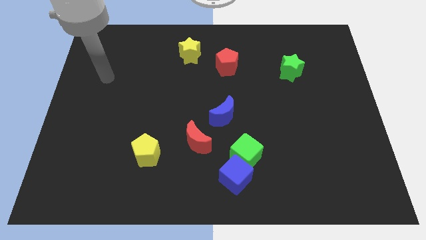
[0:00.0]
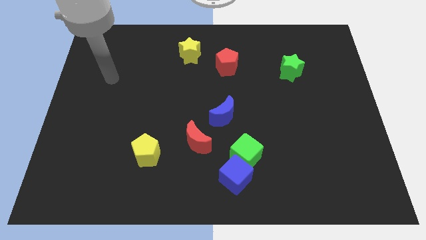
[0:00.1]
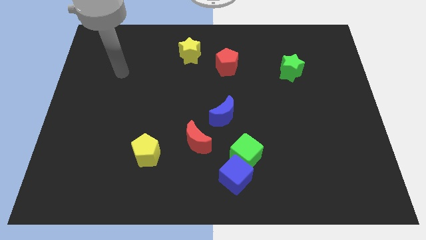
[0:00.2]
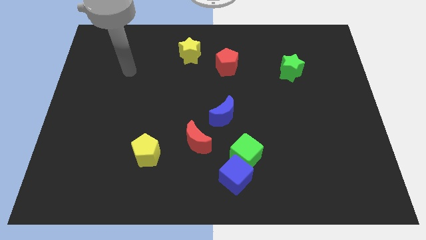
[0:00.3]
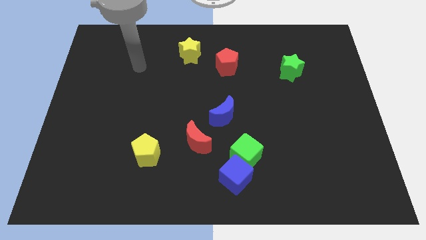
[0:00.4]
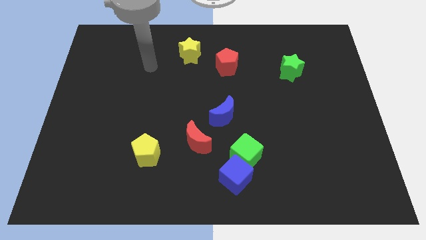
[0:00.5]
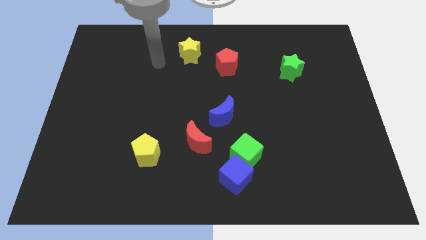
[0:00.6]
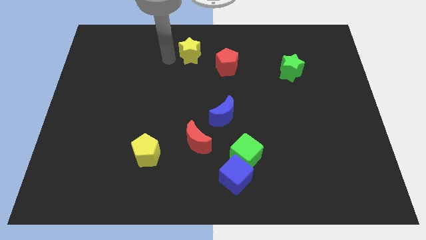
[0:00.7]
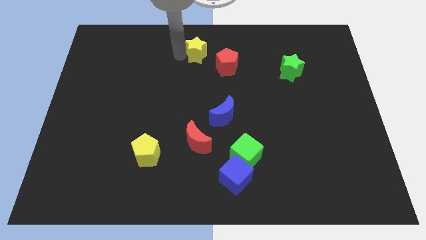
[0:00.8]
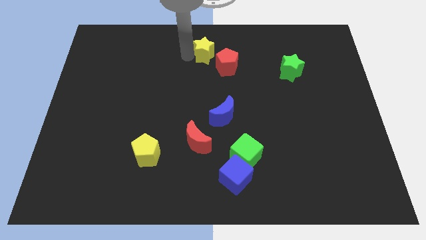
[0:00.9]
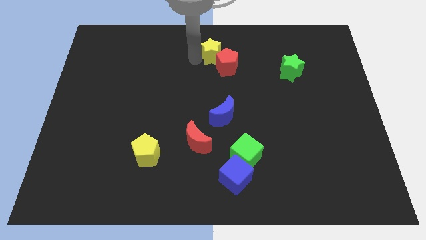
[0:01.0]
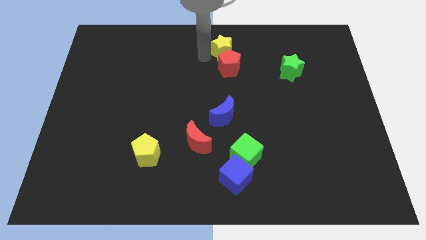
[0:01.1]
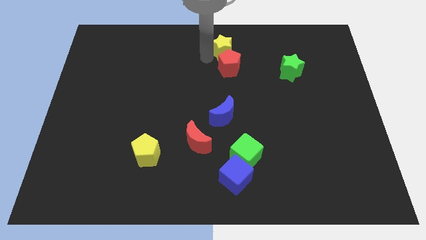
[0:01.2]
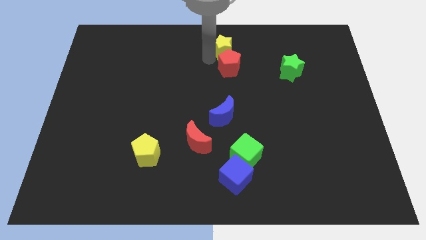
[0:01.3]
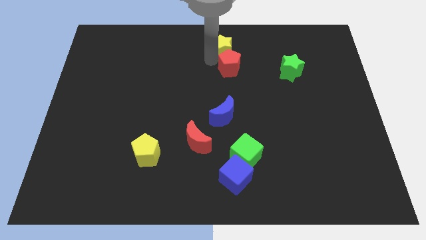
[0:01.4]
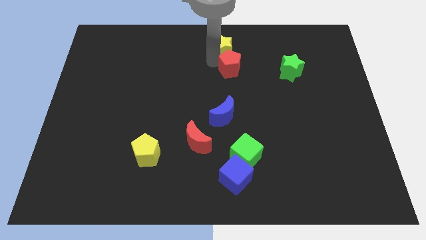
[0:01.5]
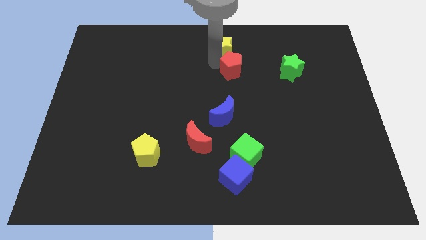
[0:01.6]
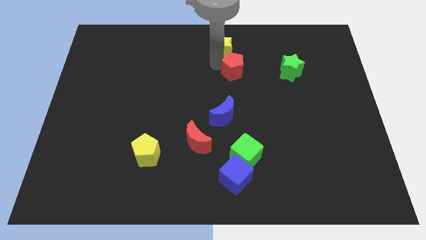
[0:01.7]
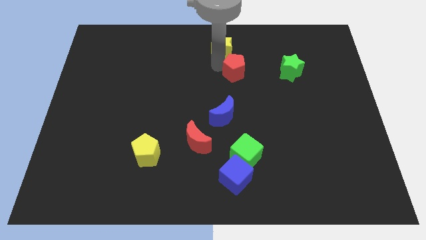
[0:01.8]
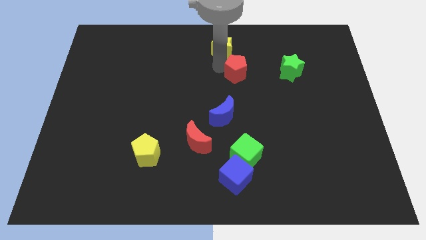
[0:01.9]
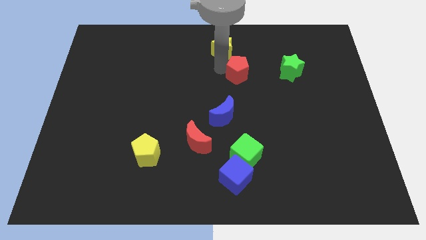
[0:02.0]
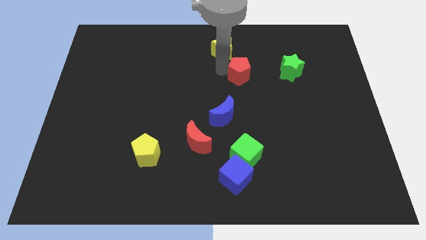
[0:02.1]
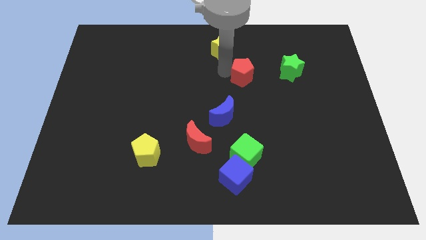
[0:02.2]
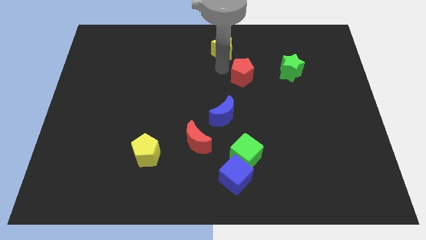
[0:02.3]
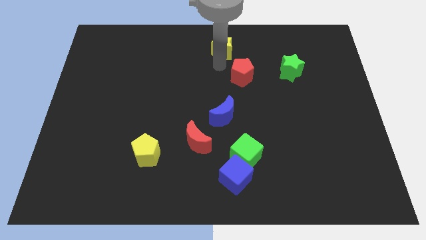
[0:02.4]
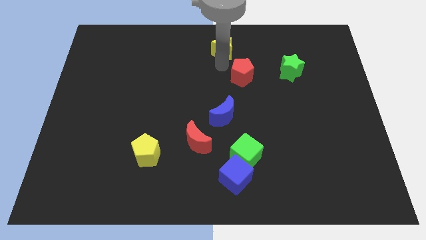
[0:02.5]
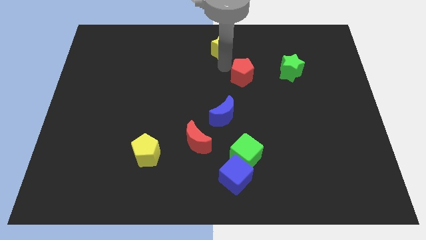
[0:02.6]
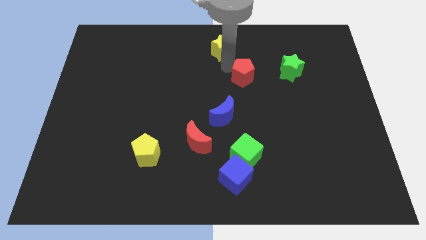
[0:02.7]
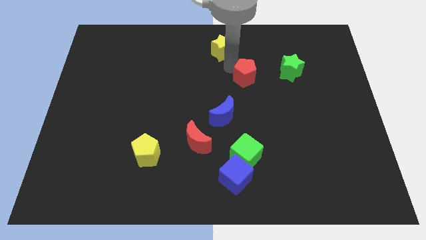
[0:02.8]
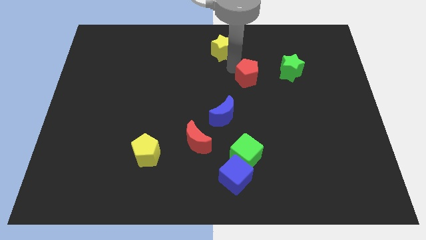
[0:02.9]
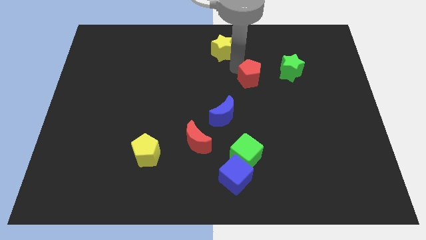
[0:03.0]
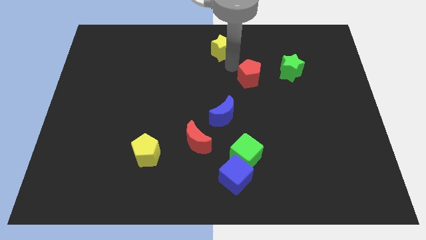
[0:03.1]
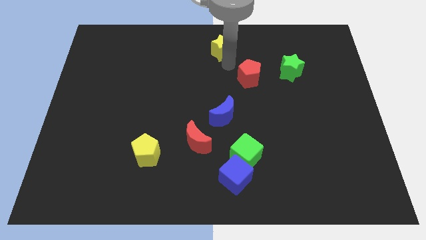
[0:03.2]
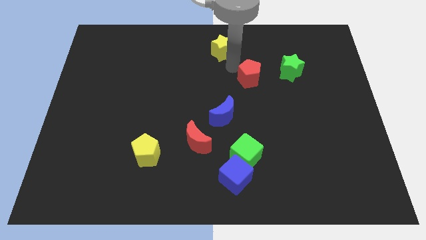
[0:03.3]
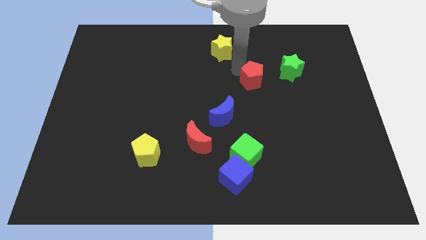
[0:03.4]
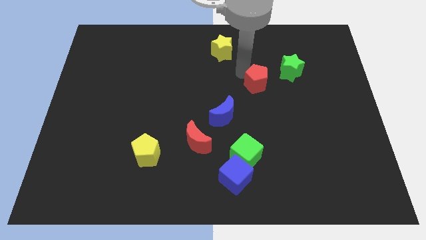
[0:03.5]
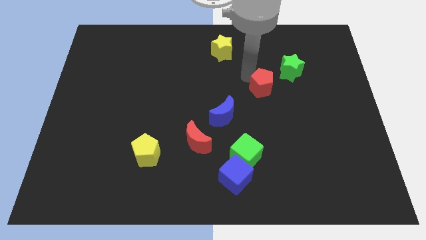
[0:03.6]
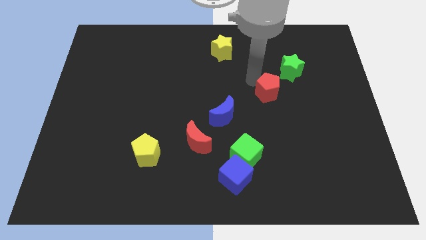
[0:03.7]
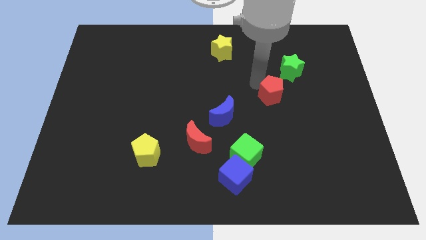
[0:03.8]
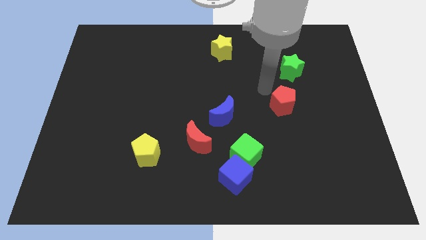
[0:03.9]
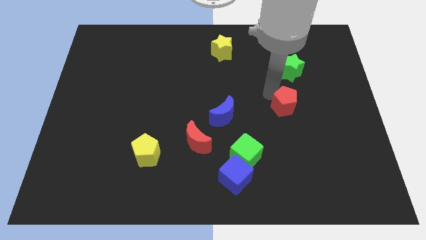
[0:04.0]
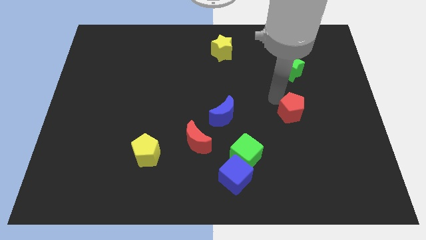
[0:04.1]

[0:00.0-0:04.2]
slide the red pentagon diagonally down and right

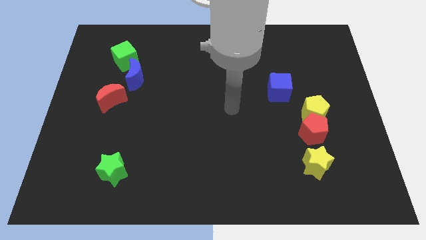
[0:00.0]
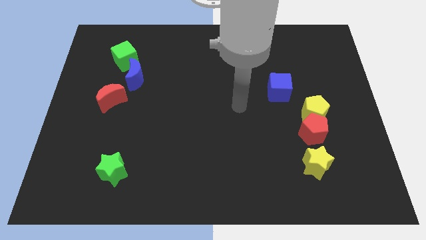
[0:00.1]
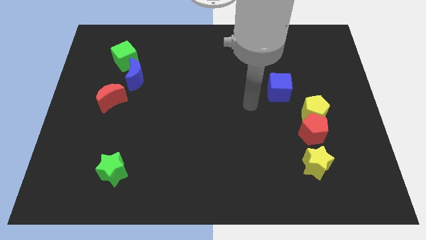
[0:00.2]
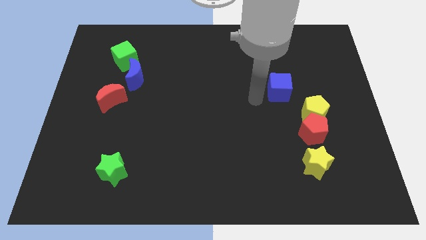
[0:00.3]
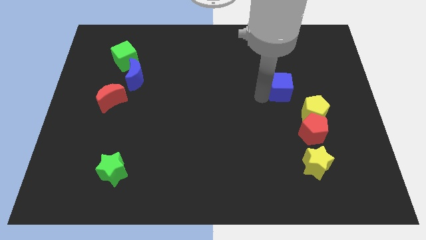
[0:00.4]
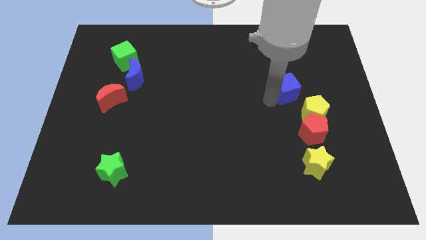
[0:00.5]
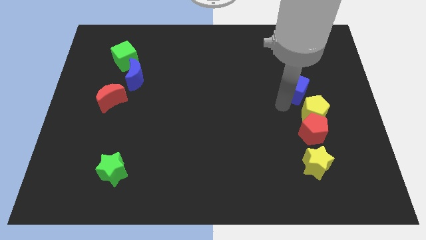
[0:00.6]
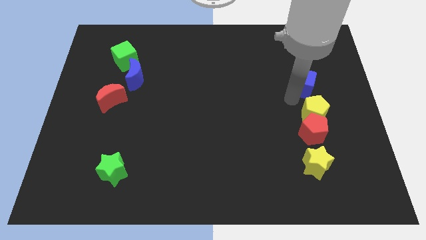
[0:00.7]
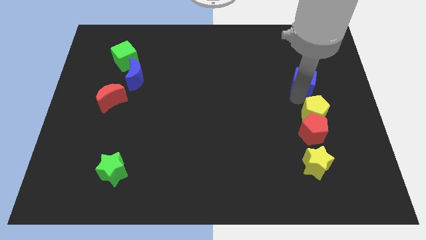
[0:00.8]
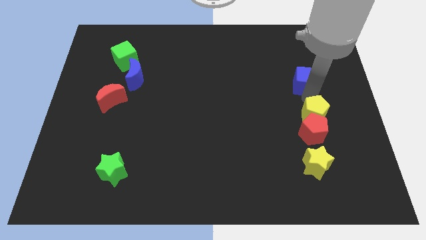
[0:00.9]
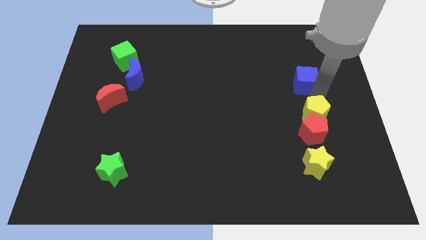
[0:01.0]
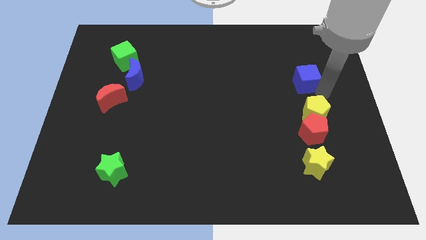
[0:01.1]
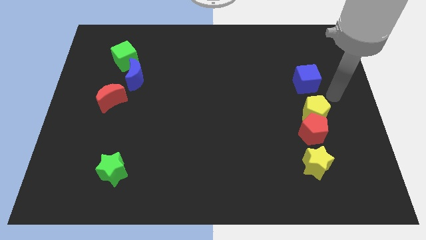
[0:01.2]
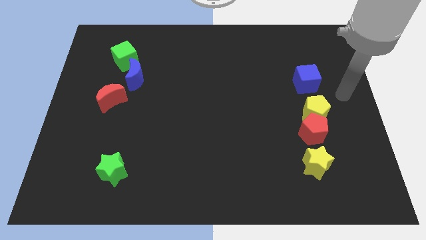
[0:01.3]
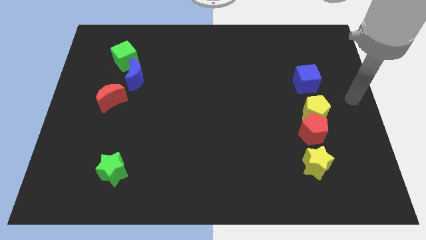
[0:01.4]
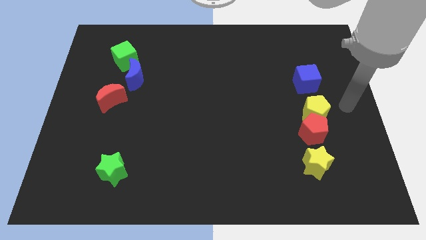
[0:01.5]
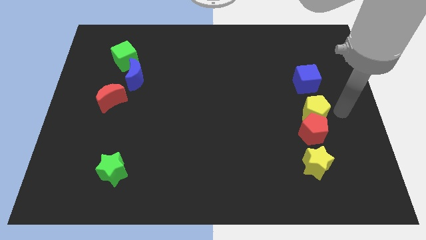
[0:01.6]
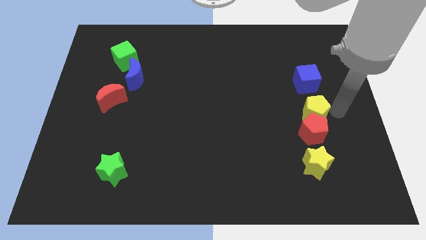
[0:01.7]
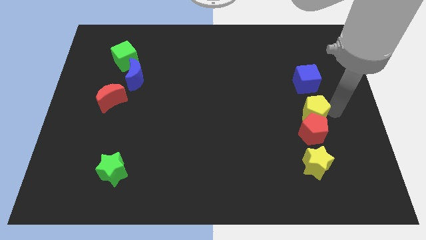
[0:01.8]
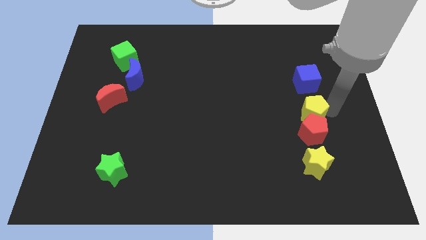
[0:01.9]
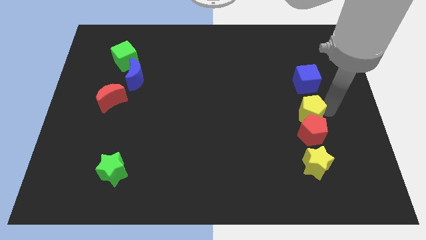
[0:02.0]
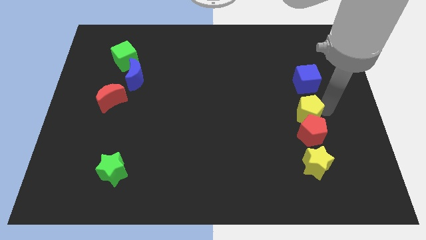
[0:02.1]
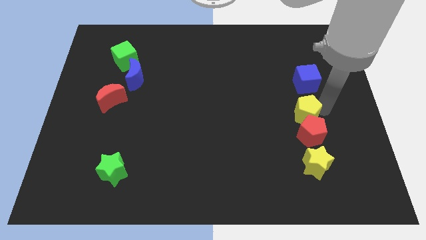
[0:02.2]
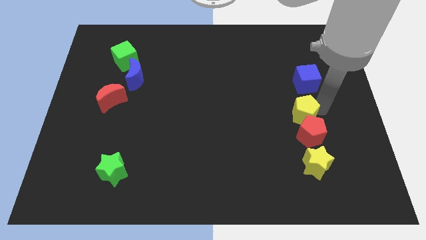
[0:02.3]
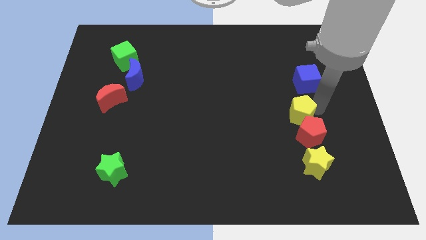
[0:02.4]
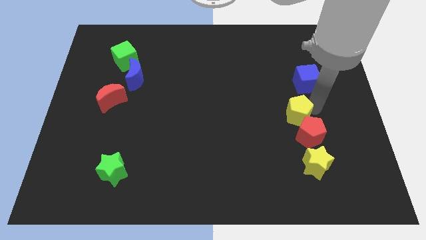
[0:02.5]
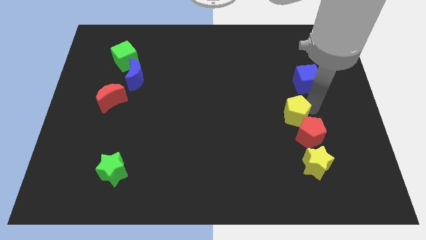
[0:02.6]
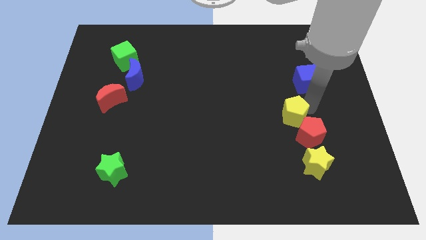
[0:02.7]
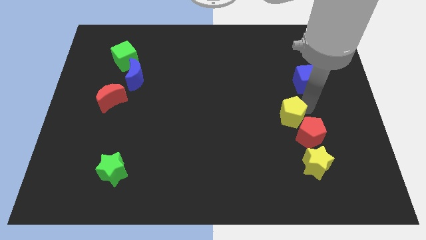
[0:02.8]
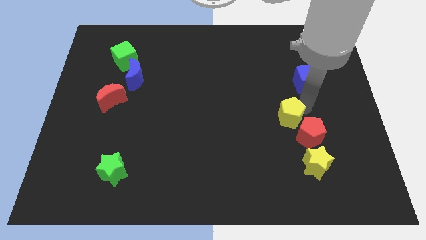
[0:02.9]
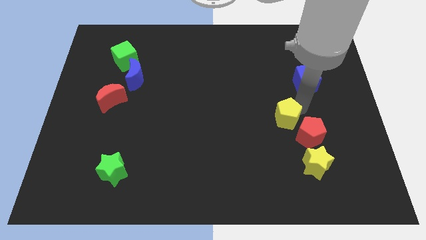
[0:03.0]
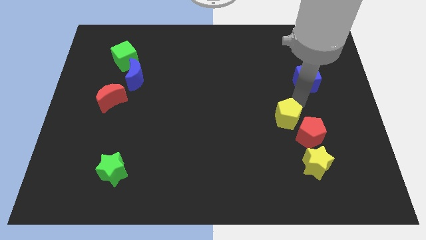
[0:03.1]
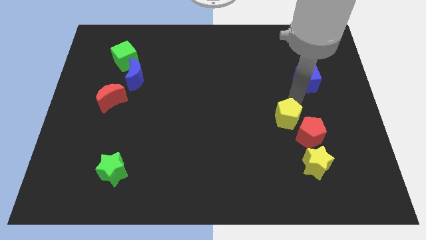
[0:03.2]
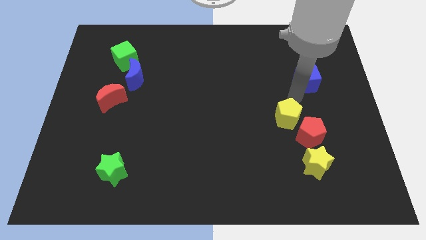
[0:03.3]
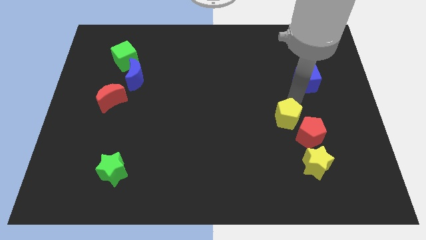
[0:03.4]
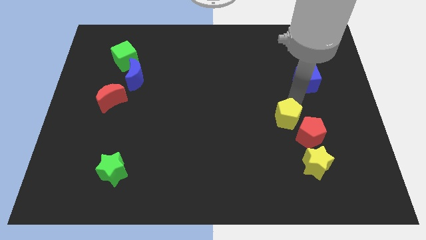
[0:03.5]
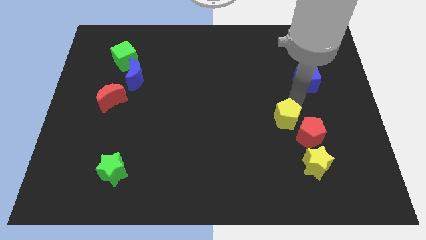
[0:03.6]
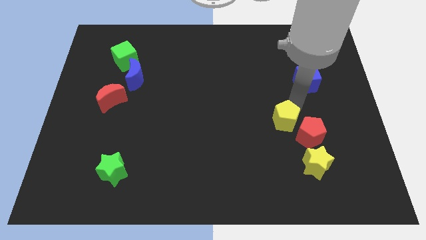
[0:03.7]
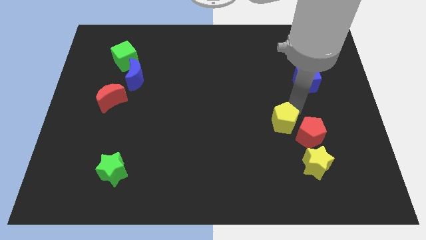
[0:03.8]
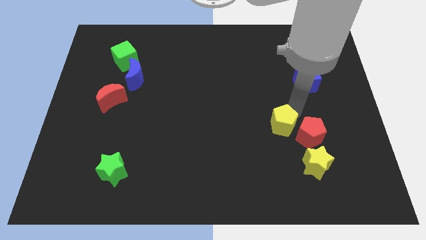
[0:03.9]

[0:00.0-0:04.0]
move the yellow pentagon downwards and then to the left a little
